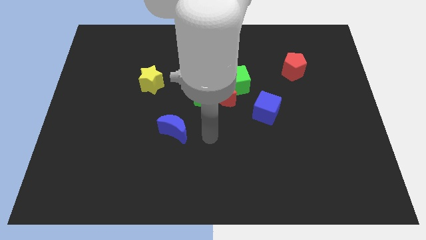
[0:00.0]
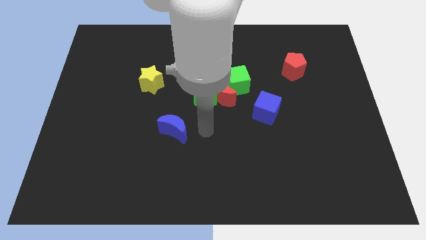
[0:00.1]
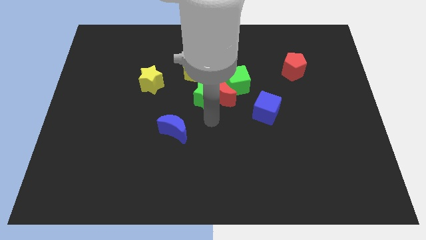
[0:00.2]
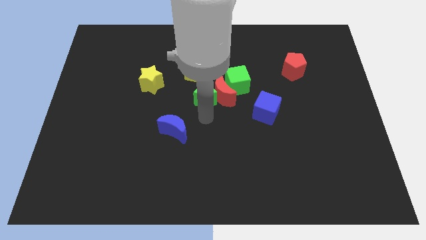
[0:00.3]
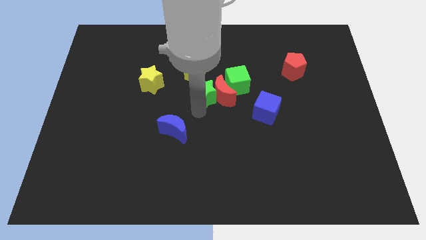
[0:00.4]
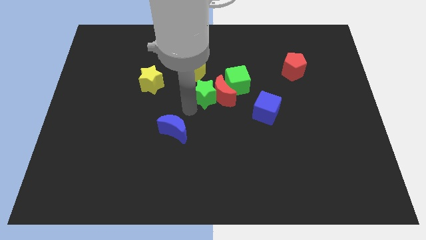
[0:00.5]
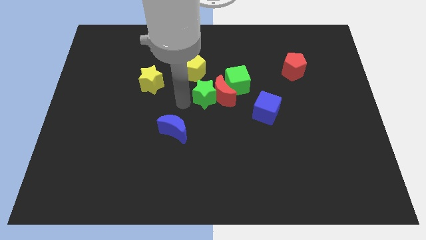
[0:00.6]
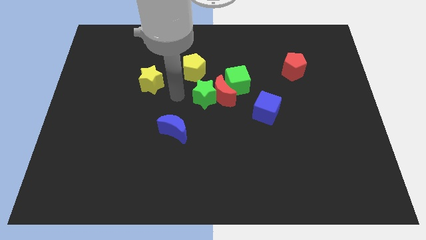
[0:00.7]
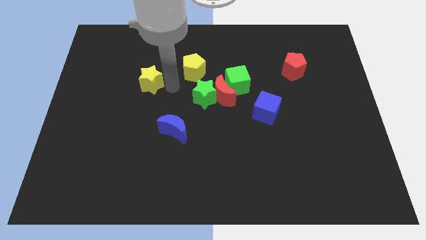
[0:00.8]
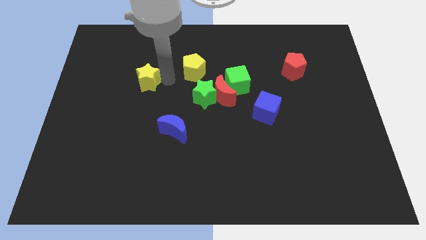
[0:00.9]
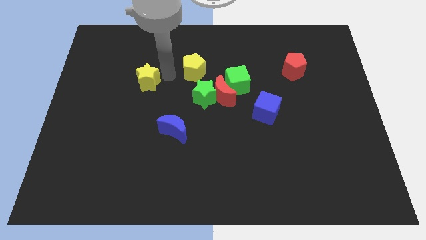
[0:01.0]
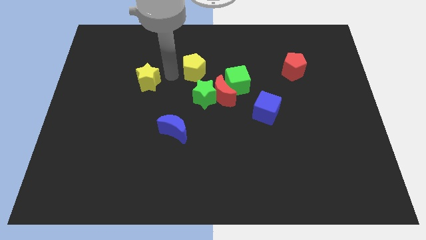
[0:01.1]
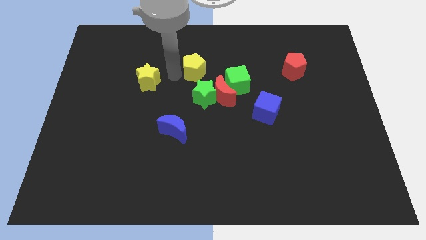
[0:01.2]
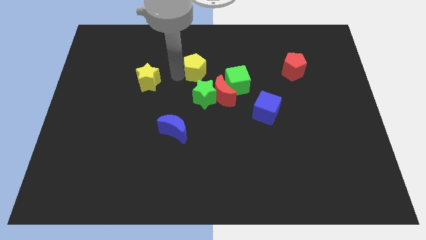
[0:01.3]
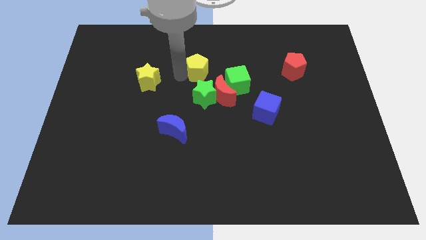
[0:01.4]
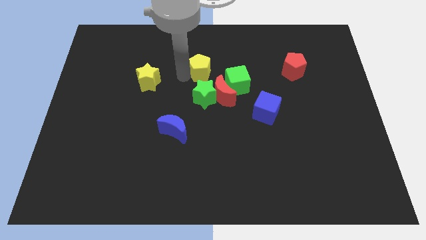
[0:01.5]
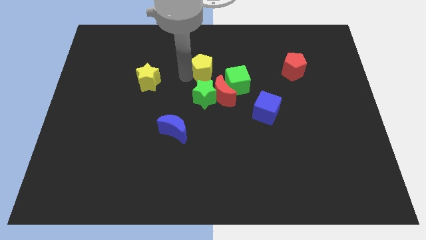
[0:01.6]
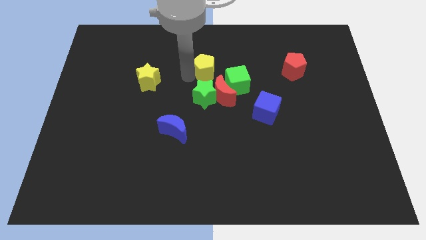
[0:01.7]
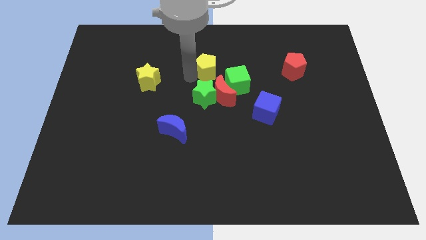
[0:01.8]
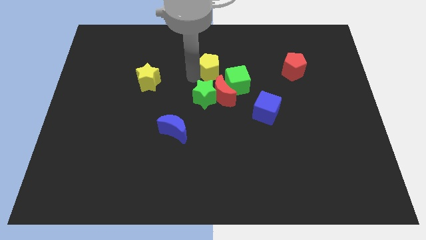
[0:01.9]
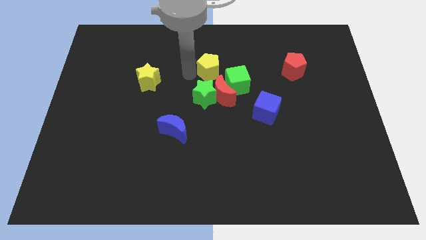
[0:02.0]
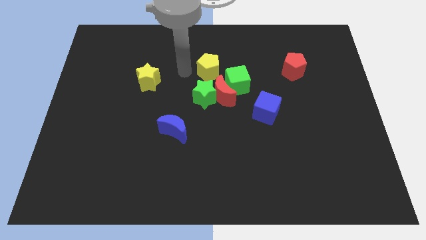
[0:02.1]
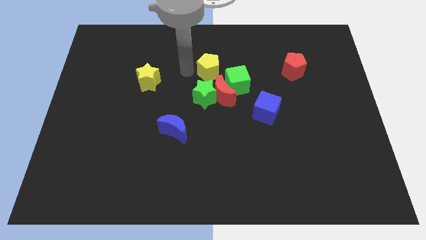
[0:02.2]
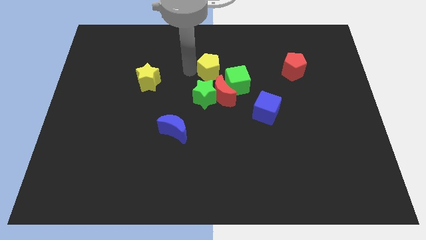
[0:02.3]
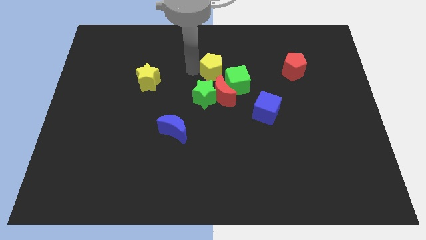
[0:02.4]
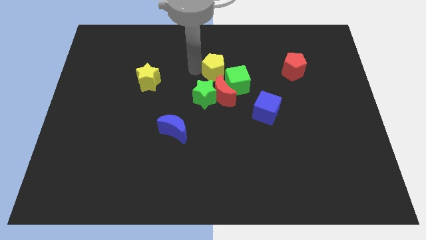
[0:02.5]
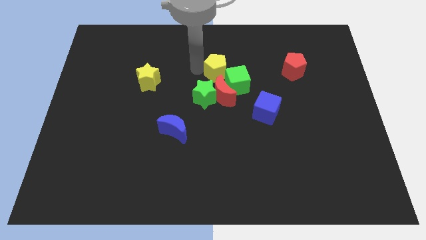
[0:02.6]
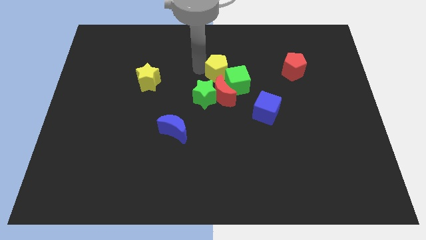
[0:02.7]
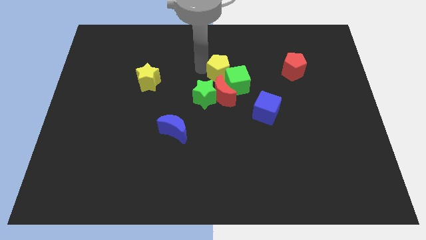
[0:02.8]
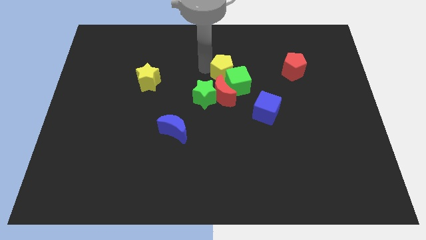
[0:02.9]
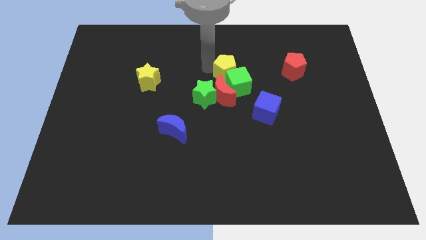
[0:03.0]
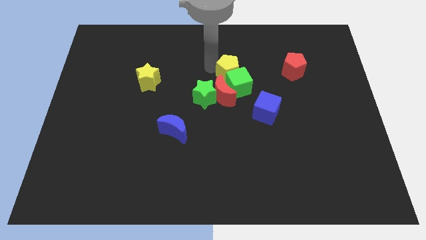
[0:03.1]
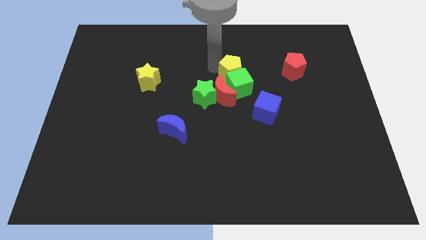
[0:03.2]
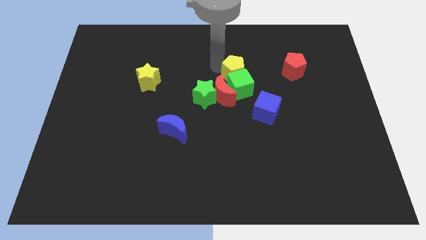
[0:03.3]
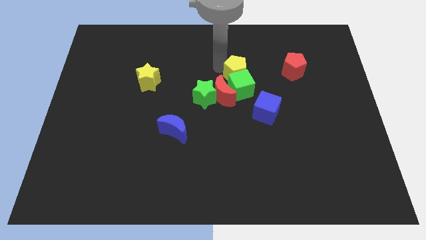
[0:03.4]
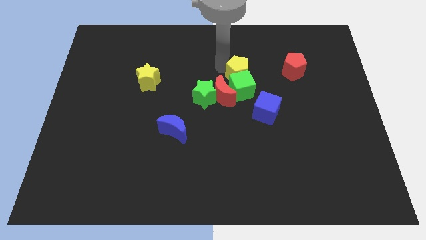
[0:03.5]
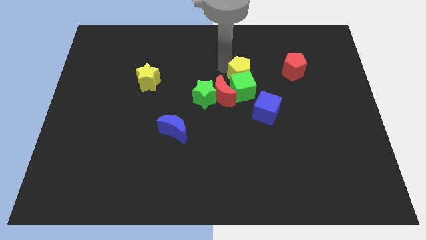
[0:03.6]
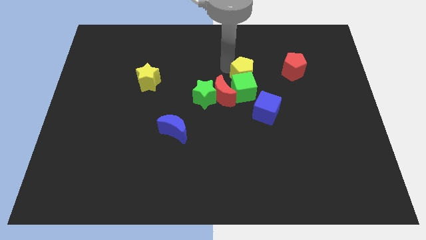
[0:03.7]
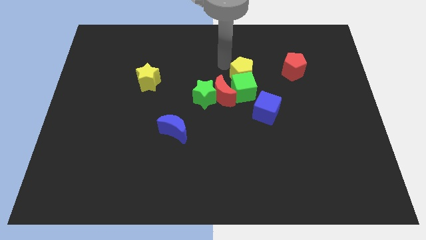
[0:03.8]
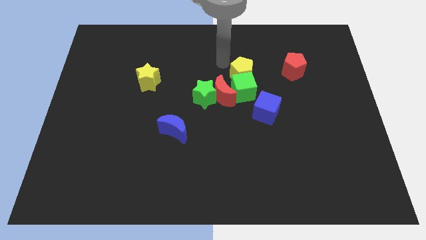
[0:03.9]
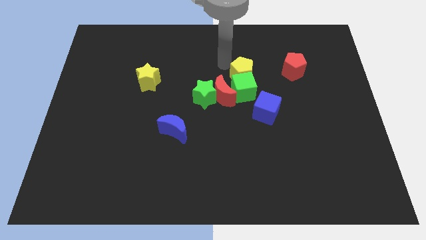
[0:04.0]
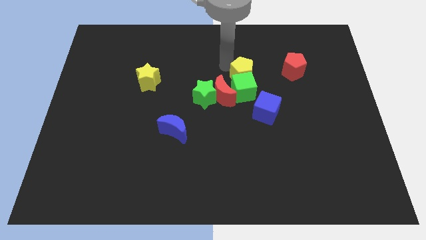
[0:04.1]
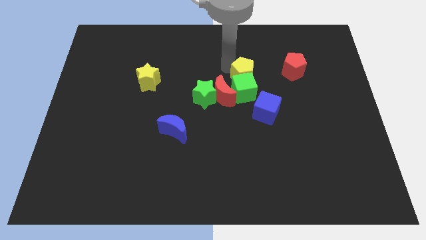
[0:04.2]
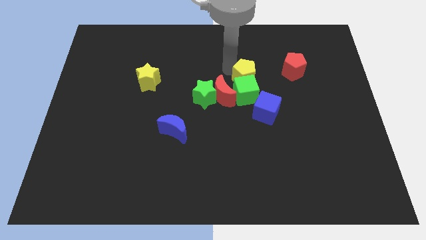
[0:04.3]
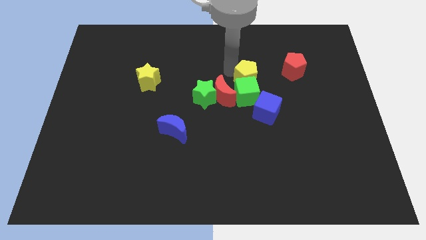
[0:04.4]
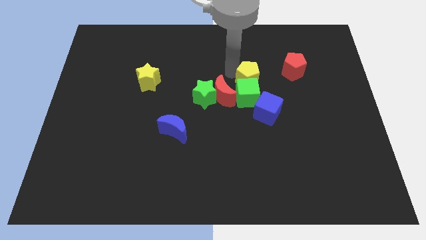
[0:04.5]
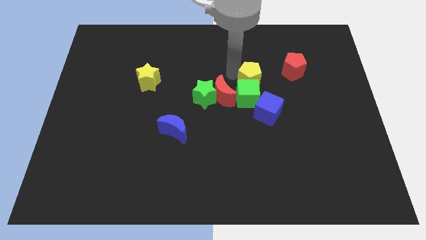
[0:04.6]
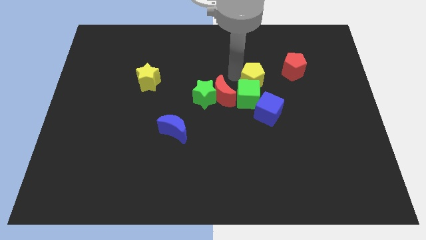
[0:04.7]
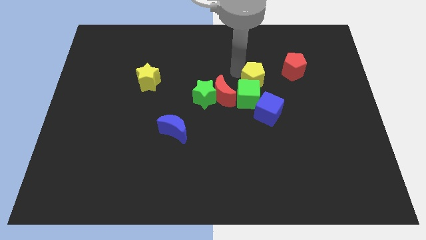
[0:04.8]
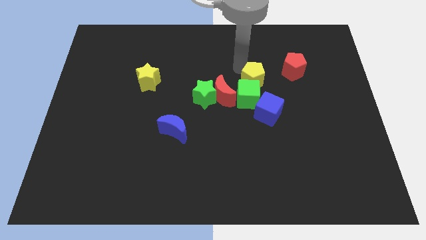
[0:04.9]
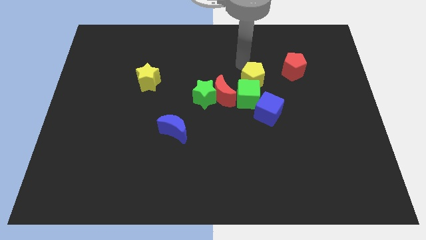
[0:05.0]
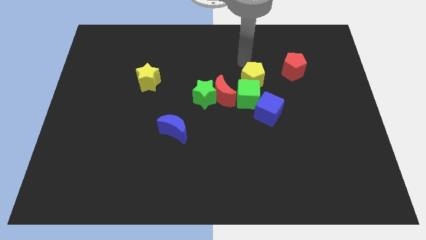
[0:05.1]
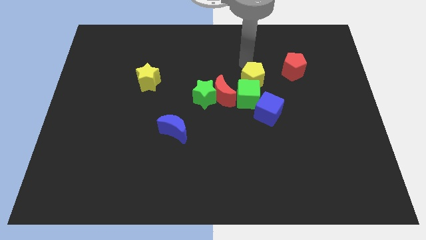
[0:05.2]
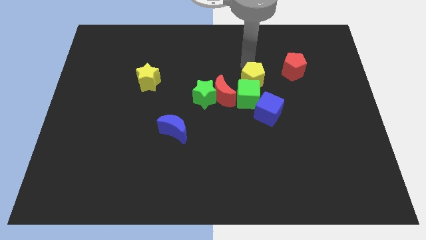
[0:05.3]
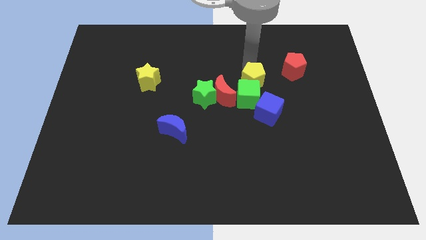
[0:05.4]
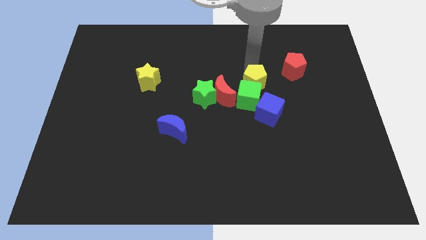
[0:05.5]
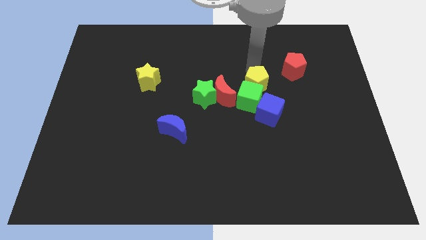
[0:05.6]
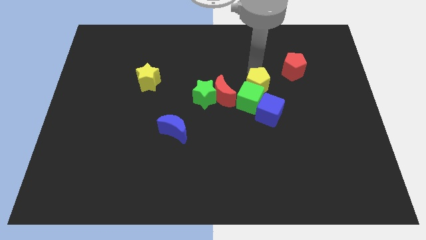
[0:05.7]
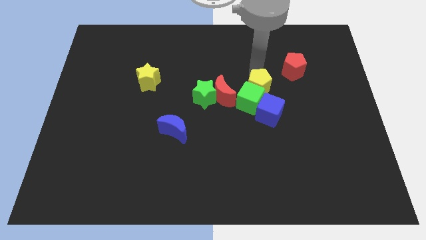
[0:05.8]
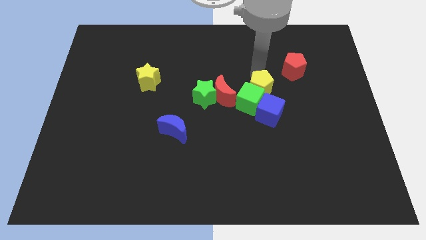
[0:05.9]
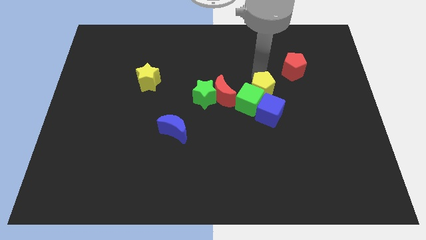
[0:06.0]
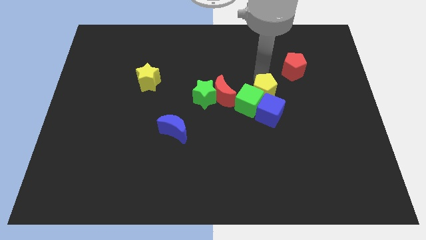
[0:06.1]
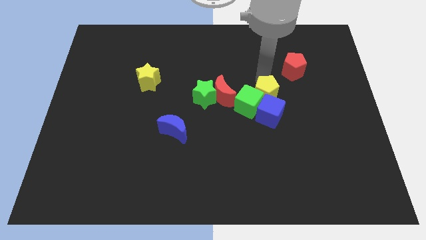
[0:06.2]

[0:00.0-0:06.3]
slide the yellow pentagon close to the blue cube

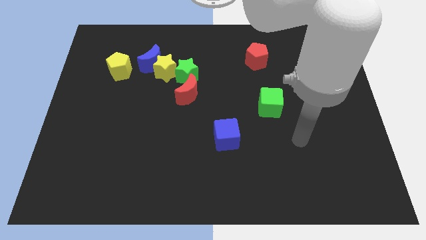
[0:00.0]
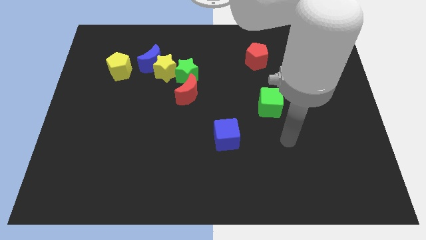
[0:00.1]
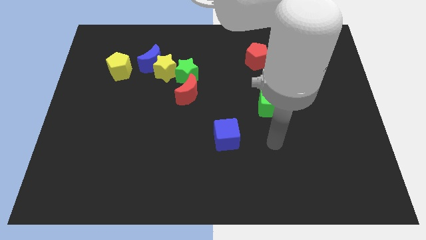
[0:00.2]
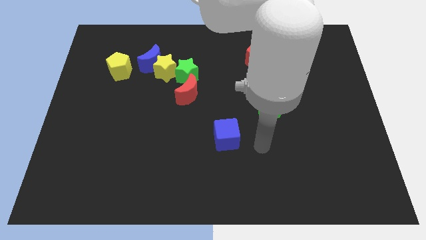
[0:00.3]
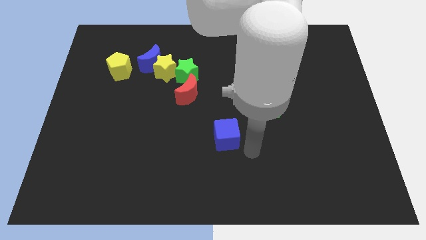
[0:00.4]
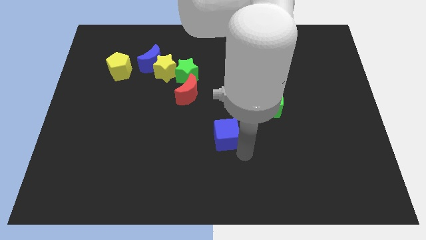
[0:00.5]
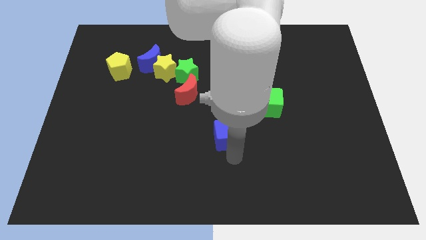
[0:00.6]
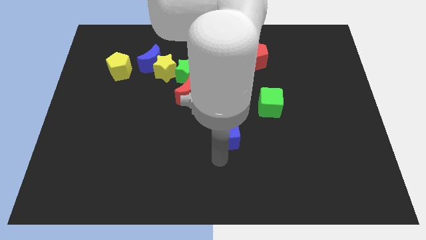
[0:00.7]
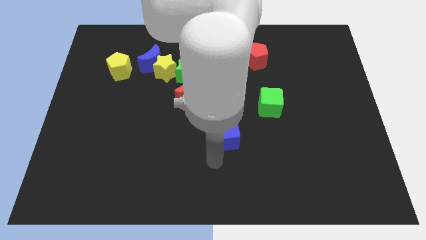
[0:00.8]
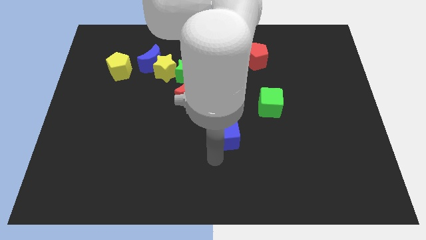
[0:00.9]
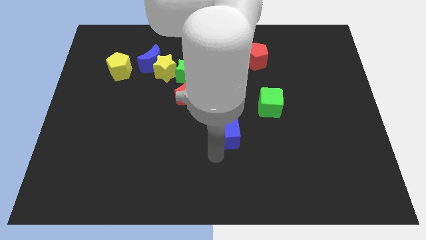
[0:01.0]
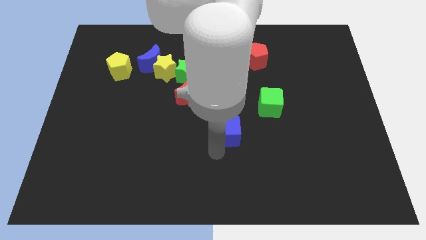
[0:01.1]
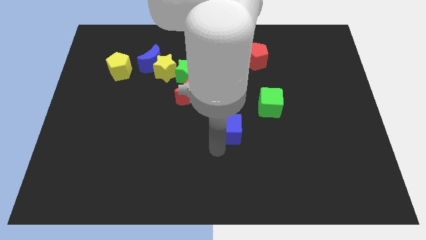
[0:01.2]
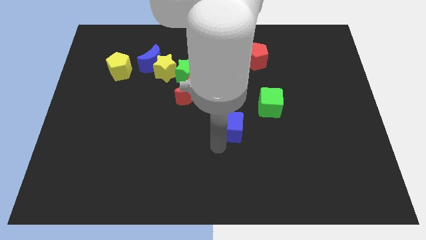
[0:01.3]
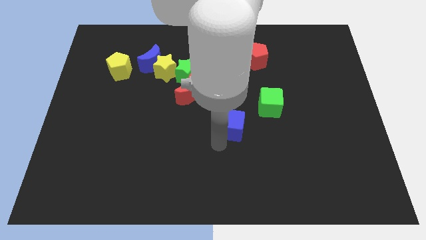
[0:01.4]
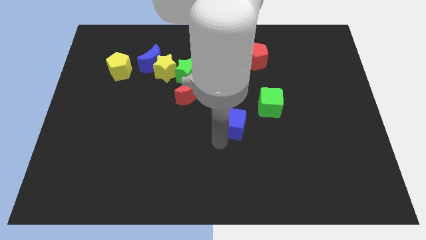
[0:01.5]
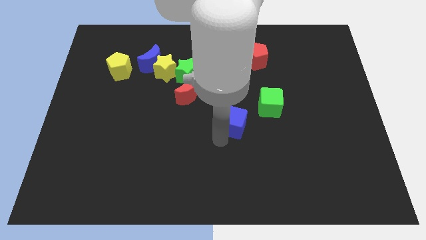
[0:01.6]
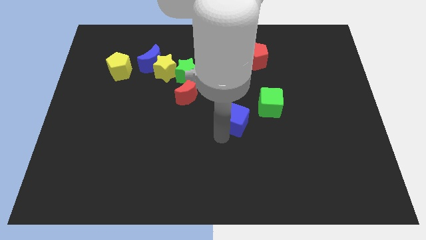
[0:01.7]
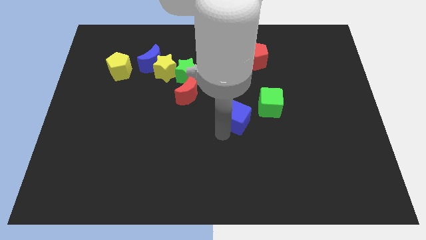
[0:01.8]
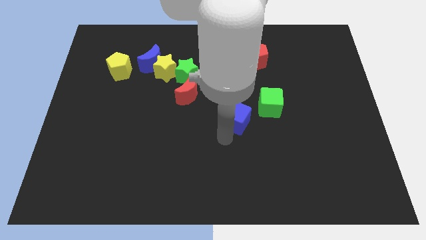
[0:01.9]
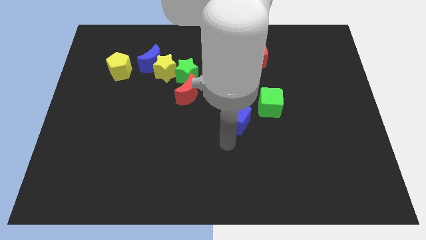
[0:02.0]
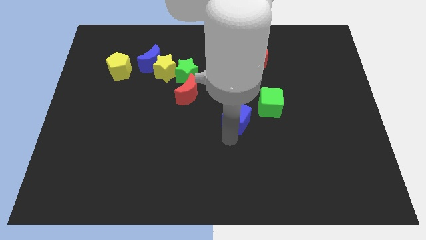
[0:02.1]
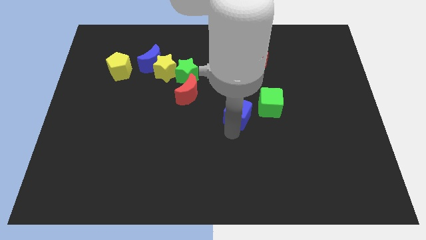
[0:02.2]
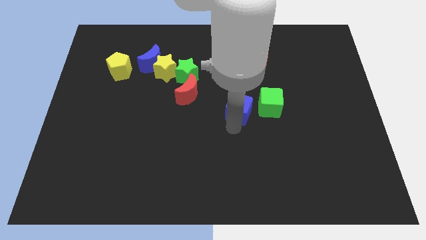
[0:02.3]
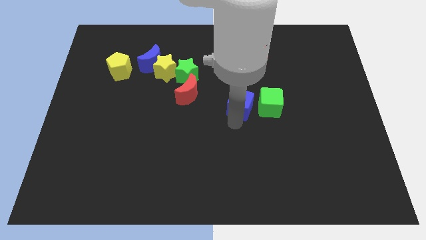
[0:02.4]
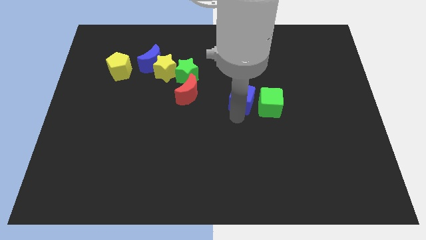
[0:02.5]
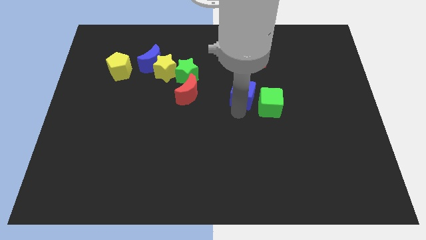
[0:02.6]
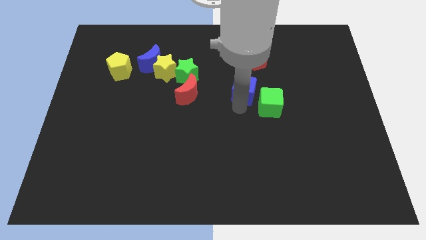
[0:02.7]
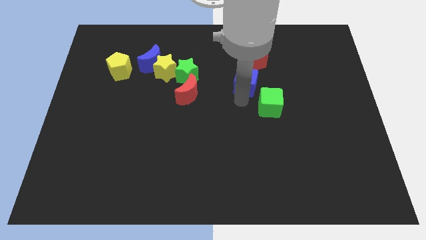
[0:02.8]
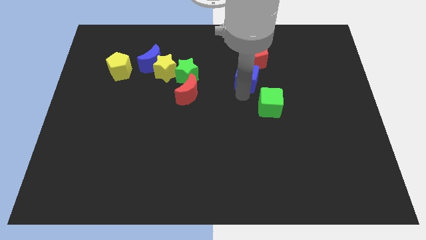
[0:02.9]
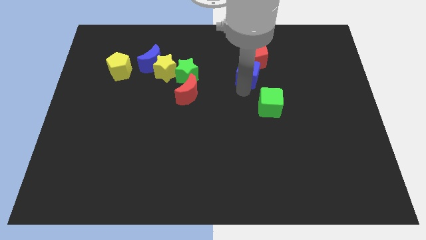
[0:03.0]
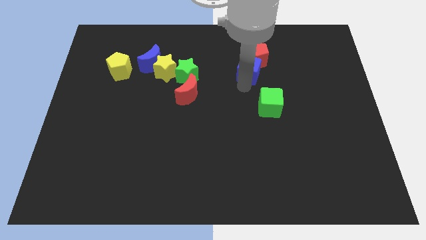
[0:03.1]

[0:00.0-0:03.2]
put the blue cube next to the red pentagon
